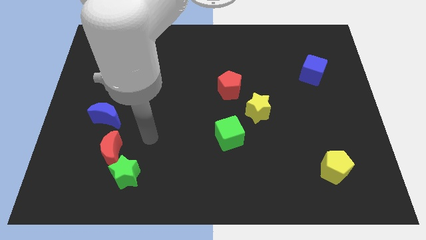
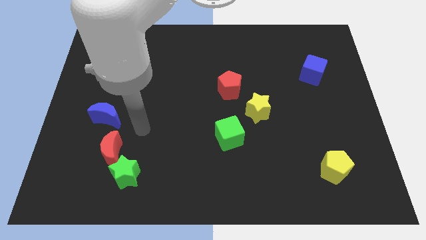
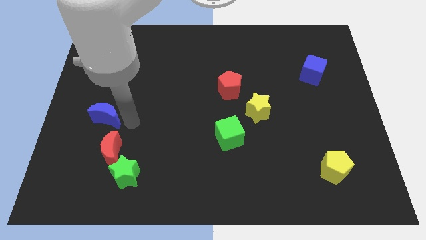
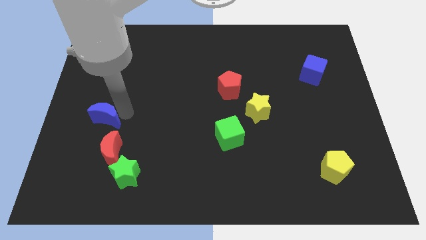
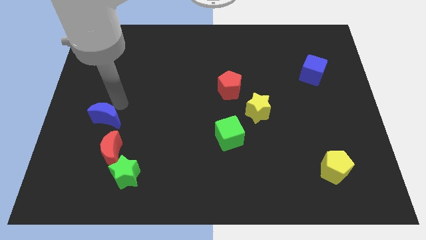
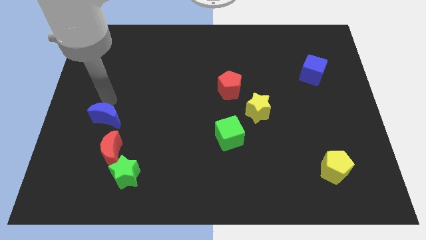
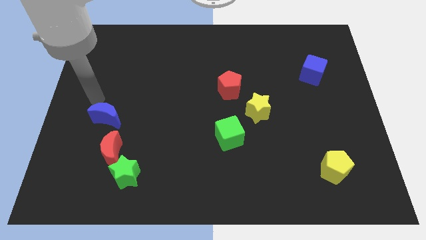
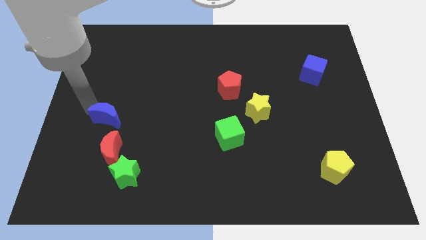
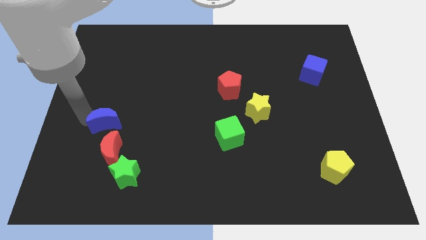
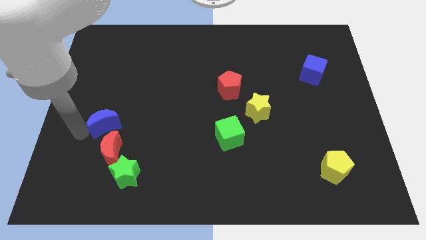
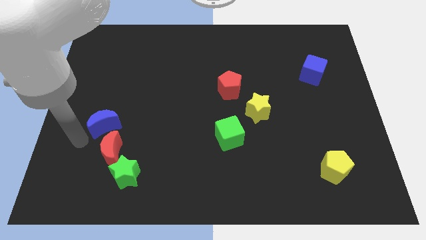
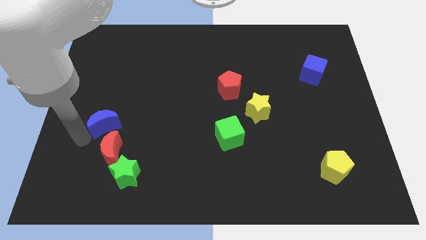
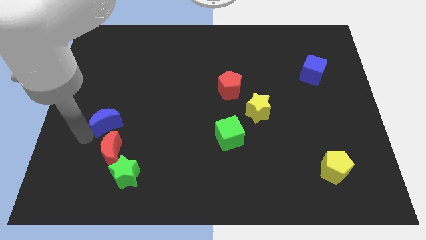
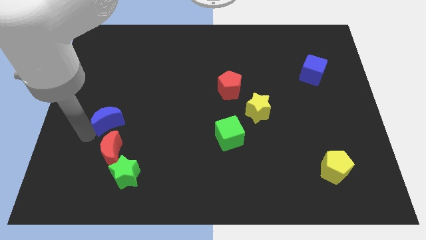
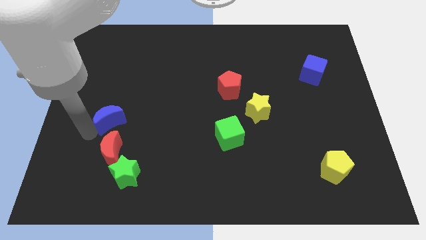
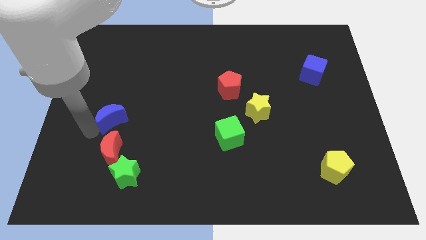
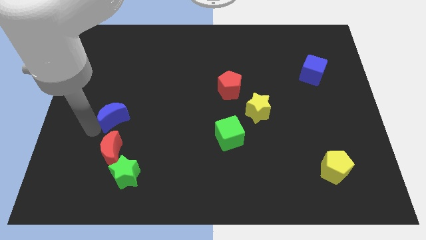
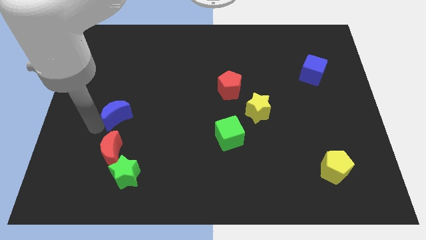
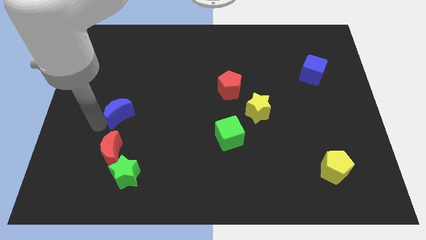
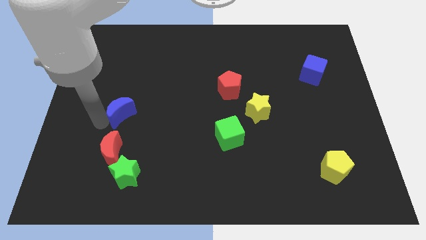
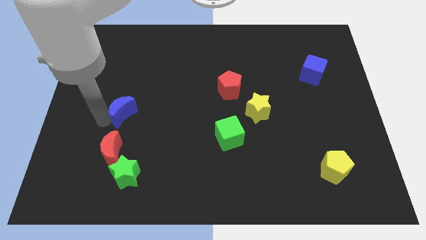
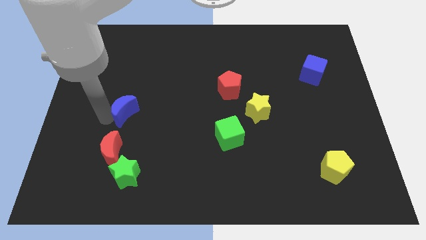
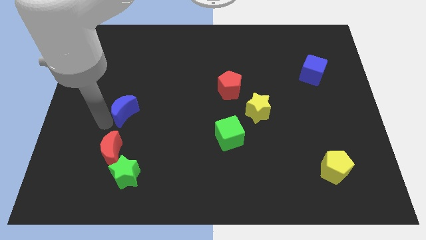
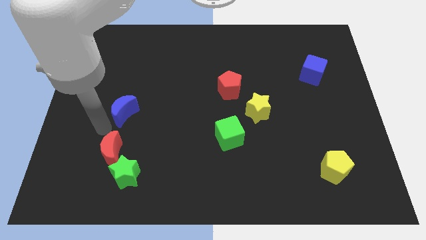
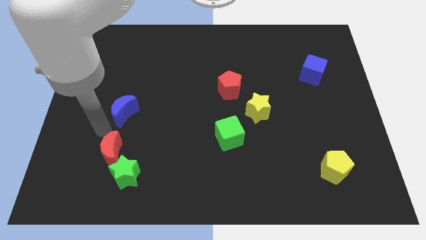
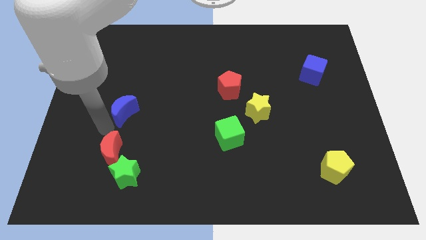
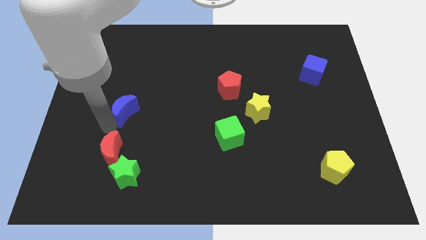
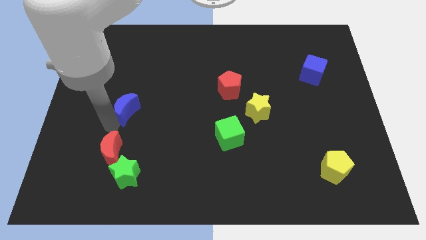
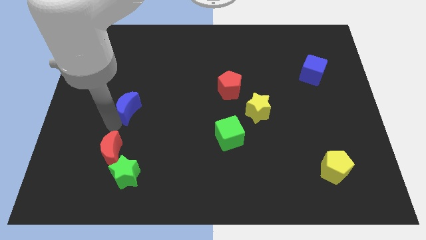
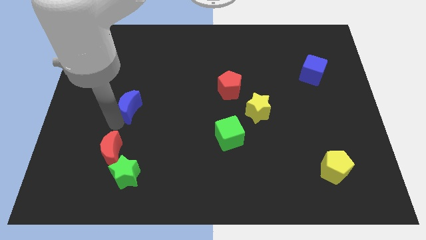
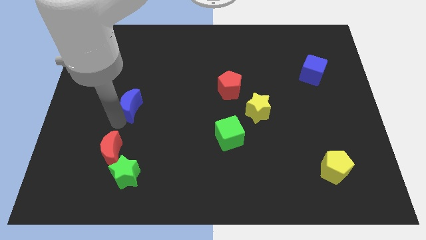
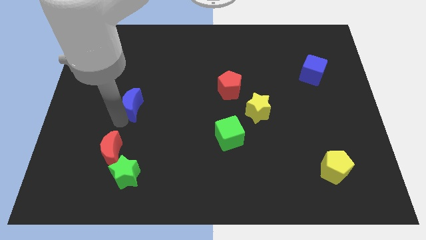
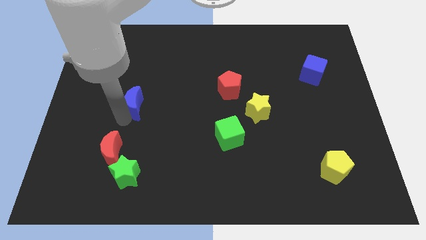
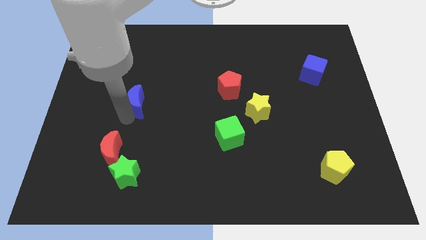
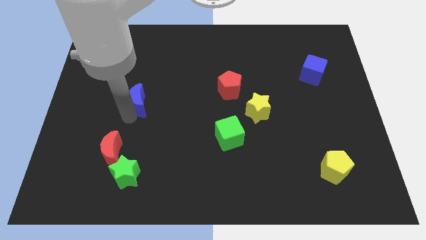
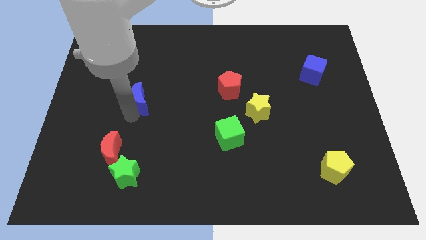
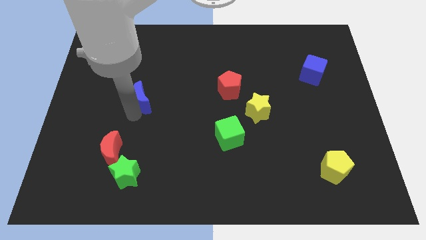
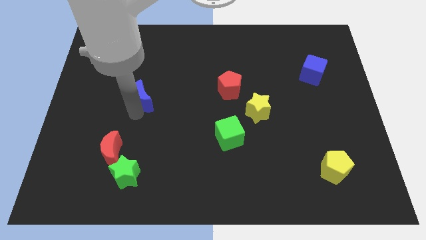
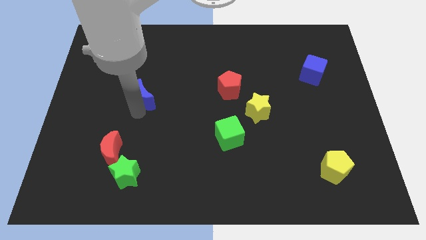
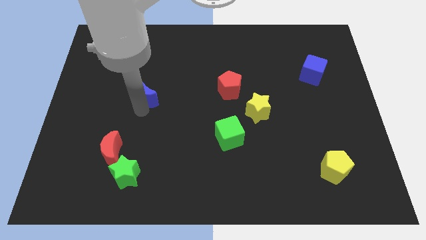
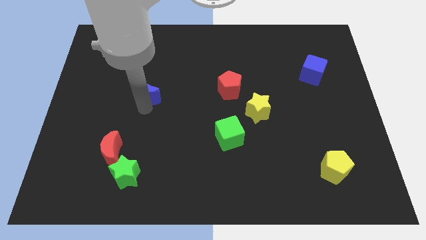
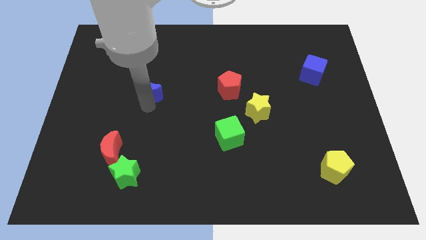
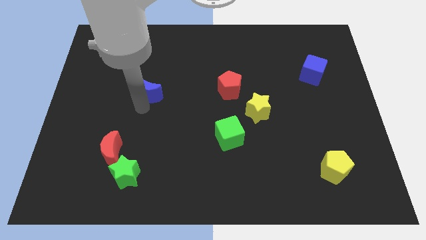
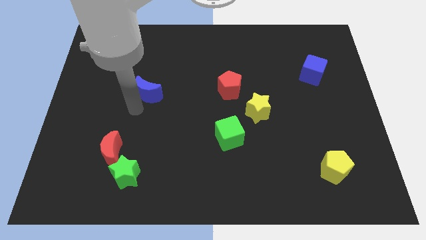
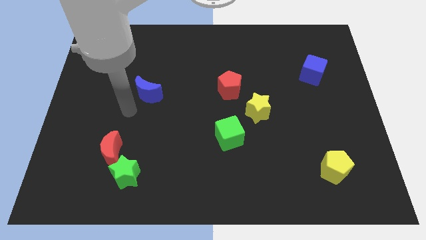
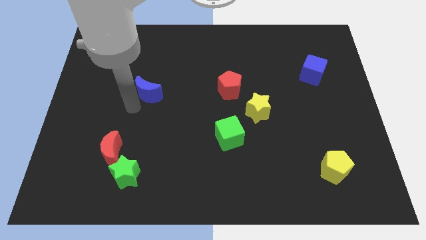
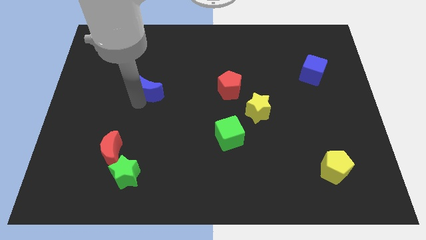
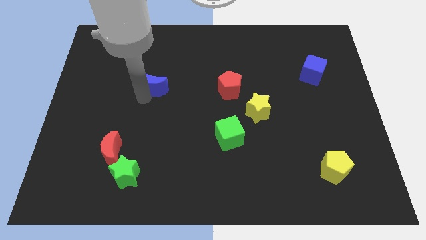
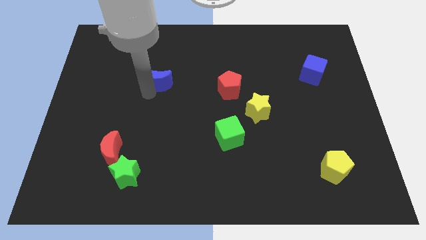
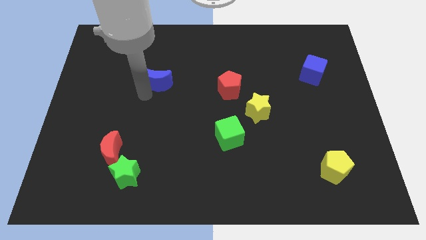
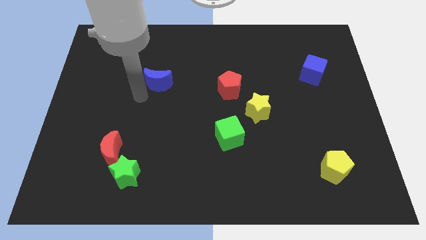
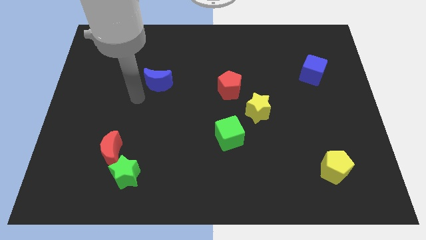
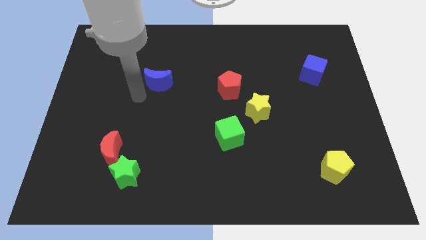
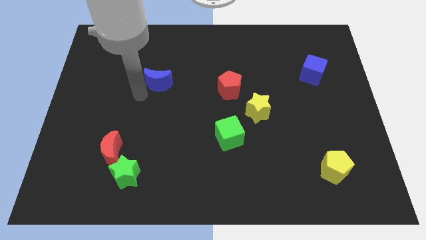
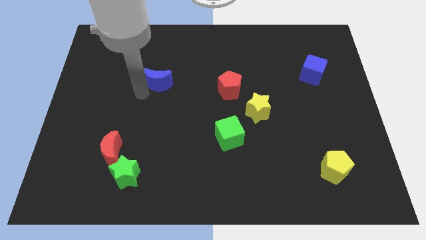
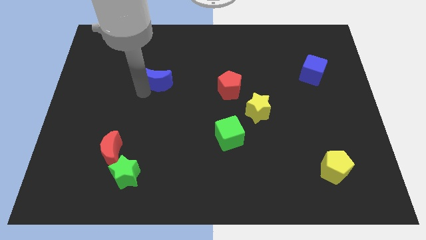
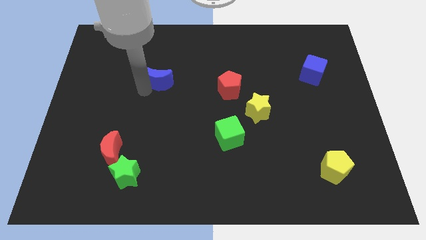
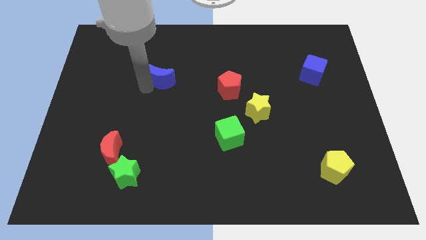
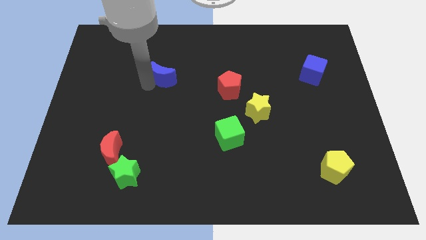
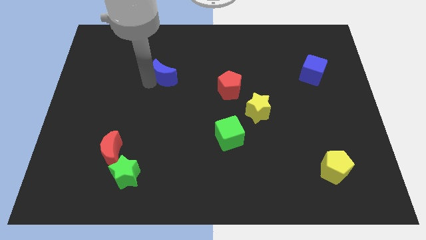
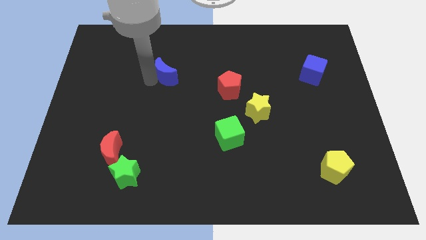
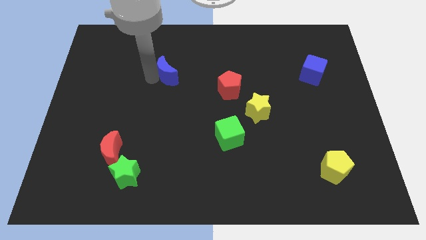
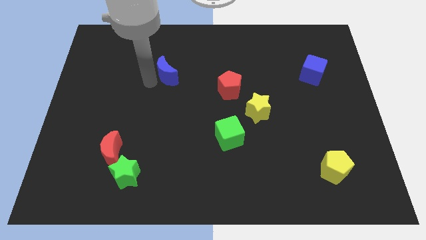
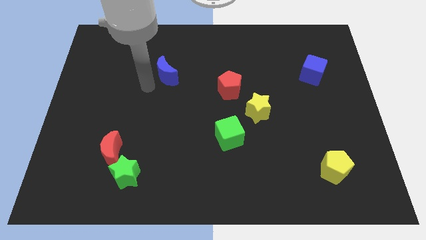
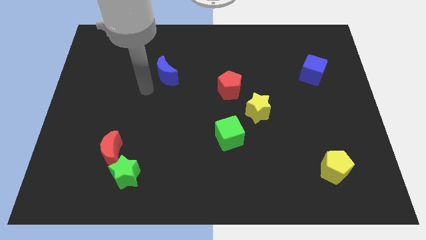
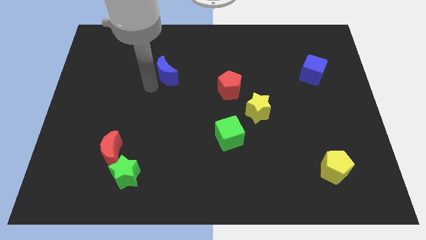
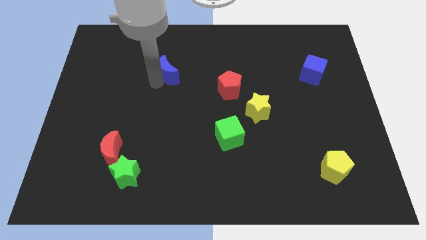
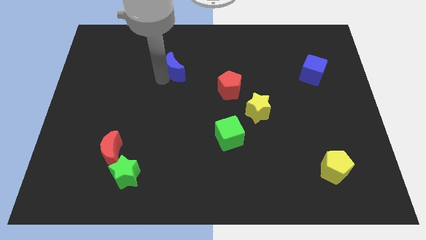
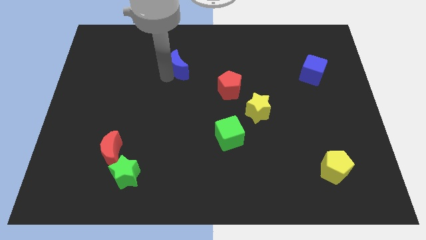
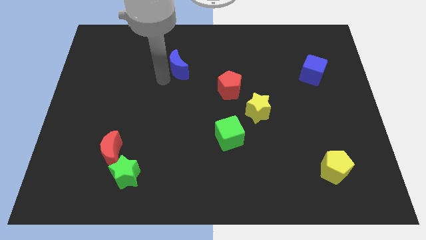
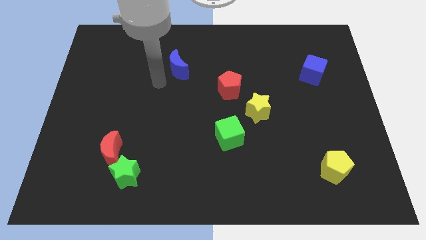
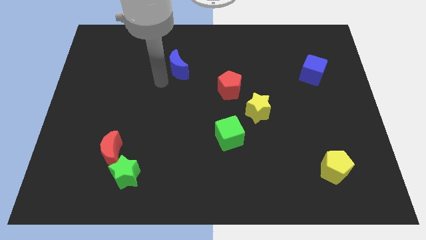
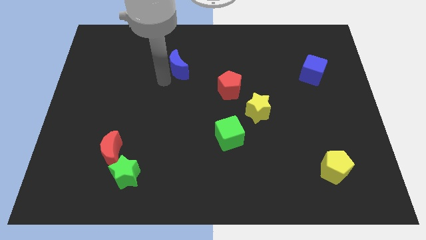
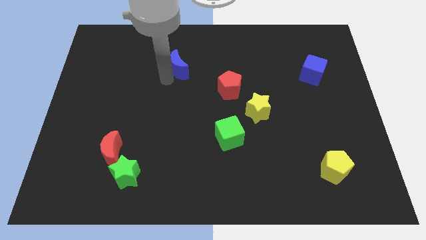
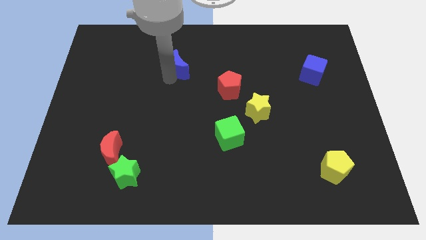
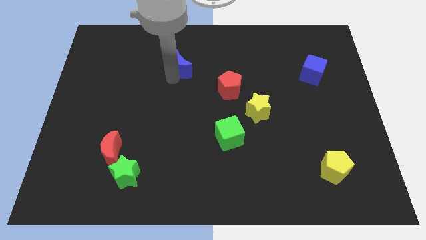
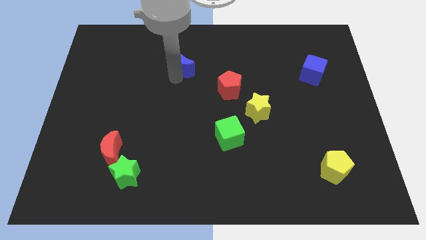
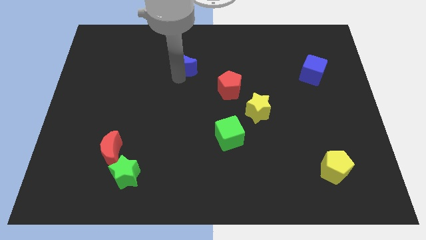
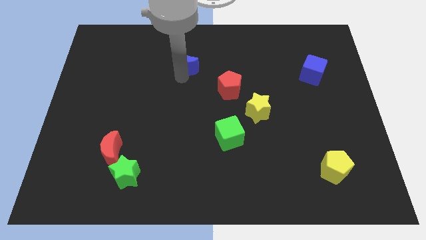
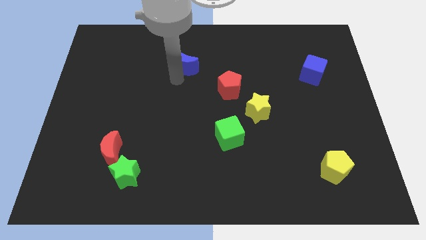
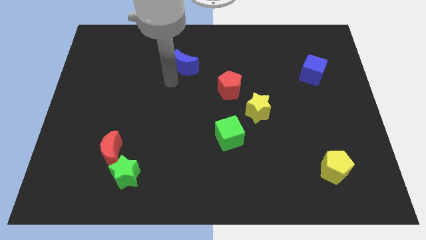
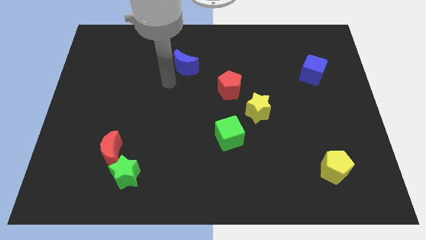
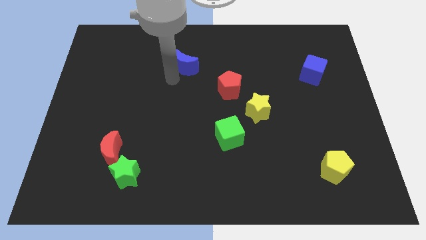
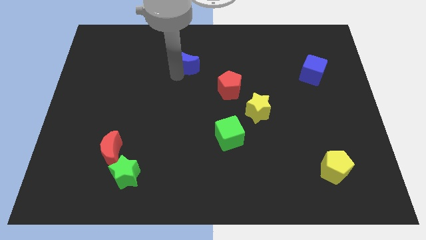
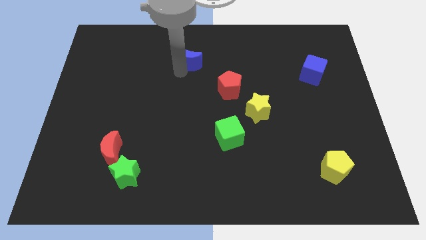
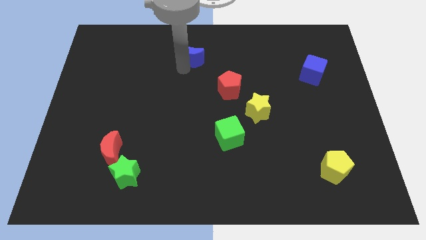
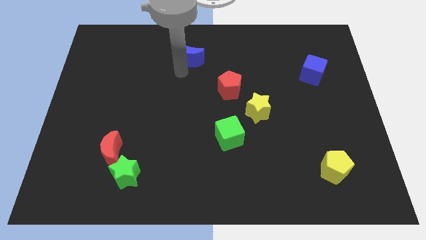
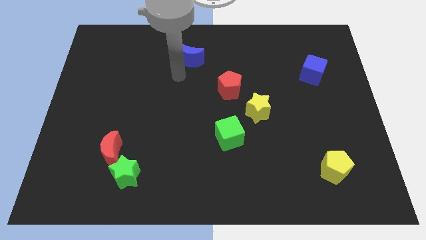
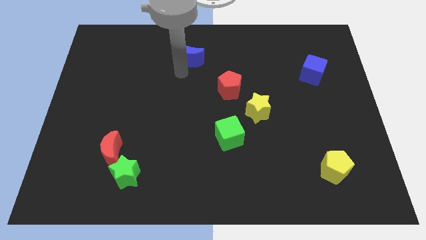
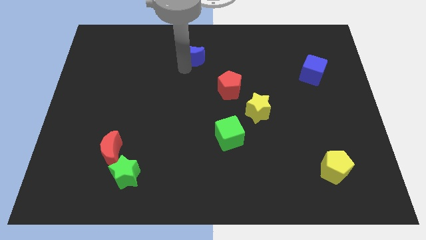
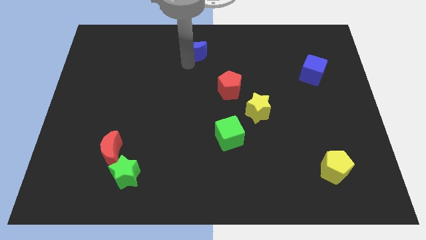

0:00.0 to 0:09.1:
put the blue moon to the top side
